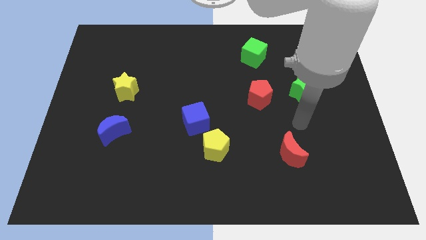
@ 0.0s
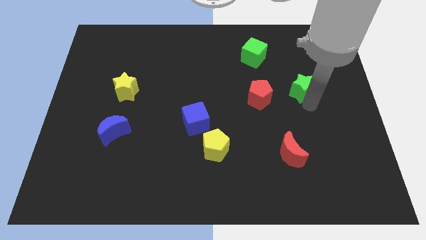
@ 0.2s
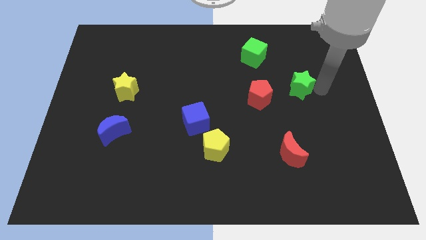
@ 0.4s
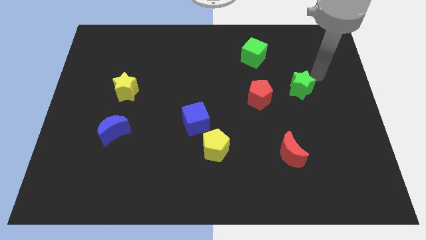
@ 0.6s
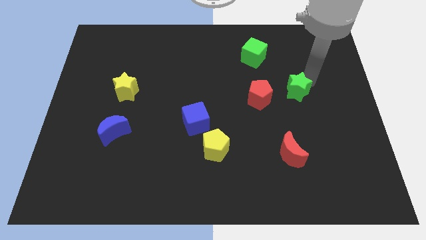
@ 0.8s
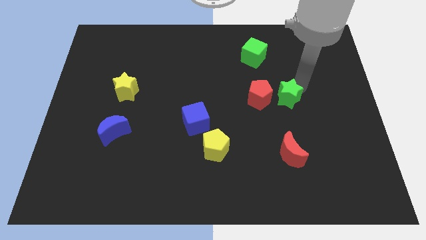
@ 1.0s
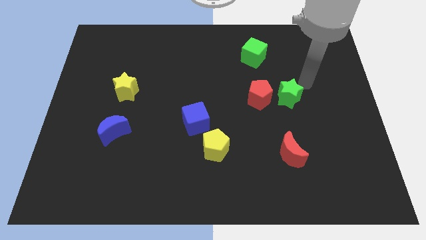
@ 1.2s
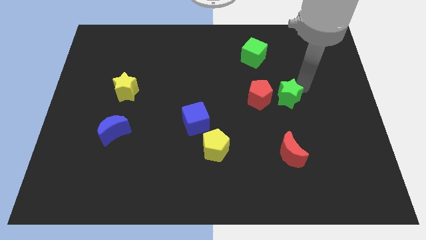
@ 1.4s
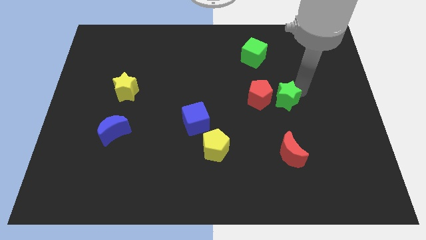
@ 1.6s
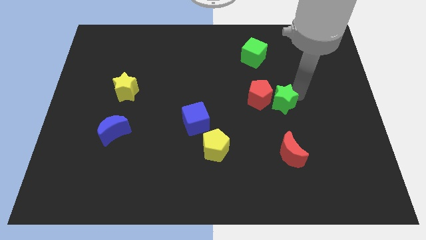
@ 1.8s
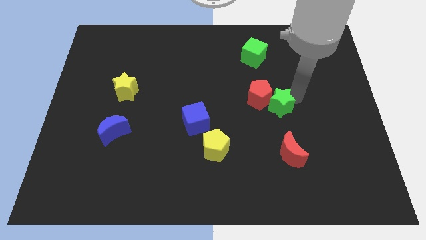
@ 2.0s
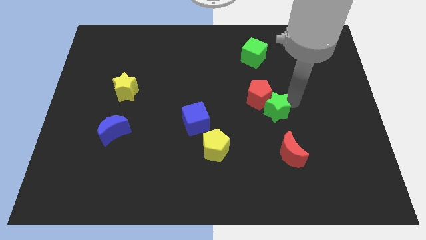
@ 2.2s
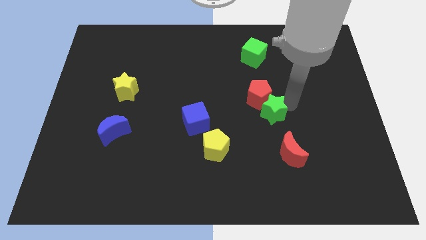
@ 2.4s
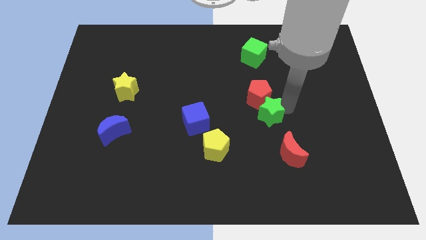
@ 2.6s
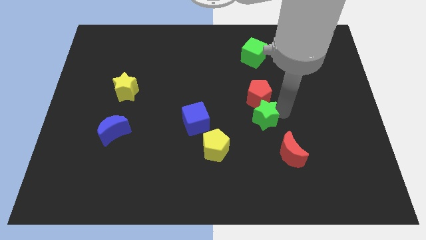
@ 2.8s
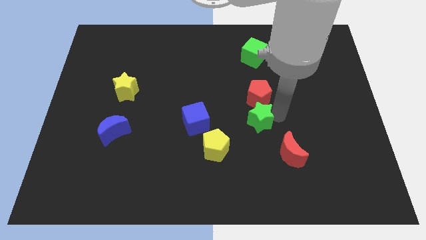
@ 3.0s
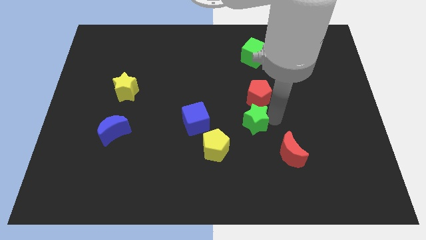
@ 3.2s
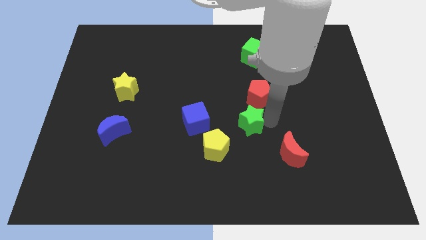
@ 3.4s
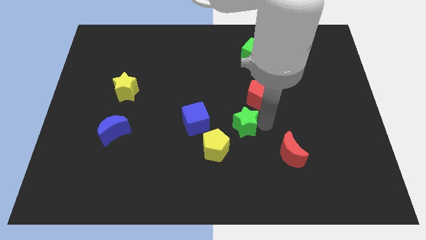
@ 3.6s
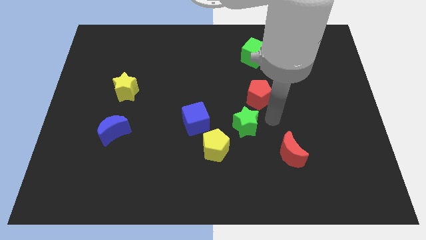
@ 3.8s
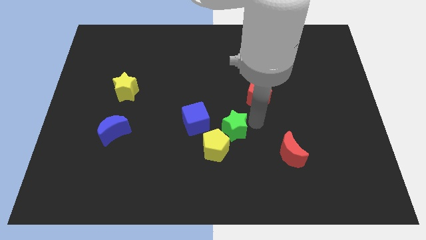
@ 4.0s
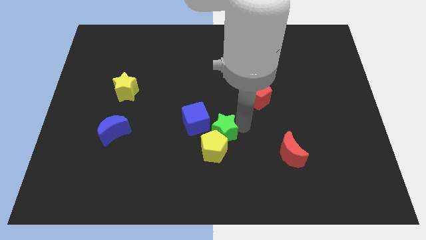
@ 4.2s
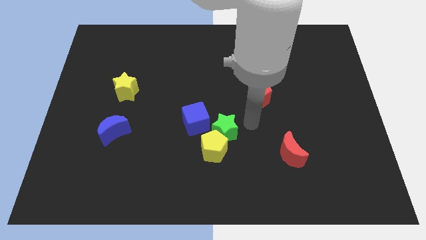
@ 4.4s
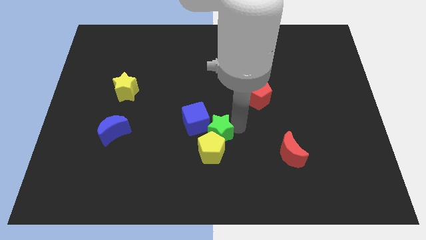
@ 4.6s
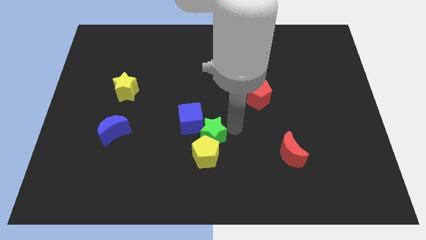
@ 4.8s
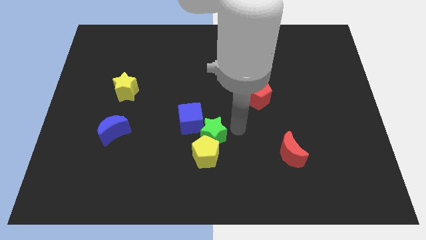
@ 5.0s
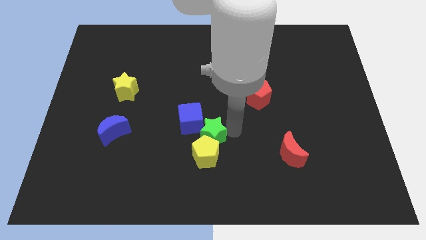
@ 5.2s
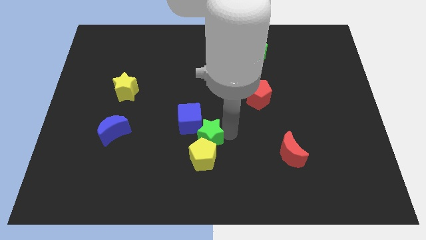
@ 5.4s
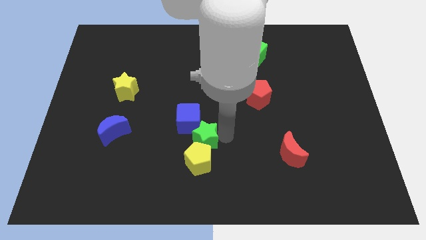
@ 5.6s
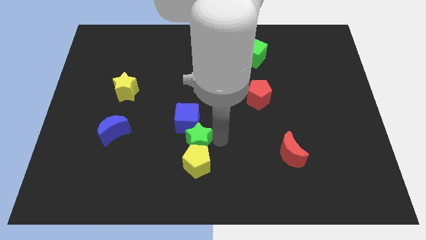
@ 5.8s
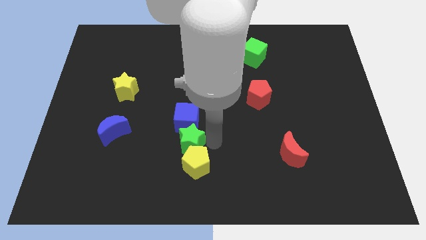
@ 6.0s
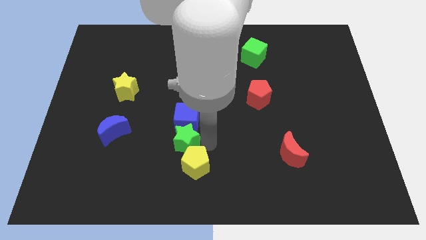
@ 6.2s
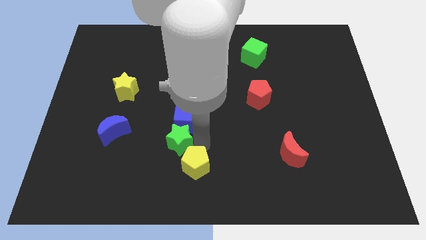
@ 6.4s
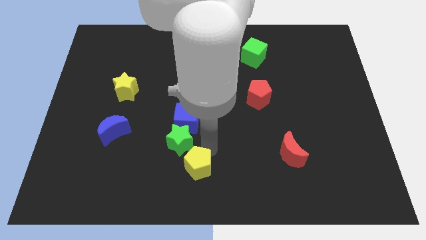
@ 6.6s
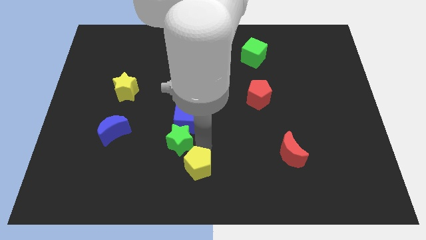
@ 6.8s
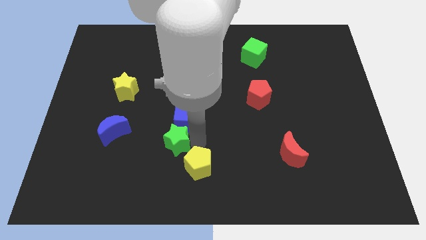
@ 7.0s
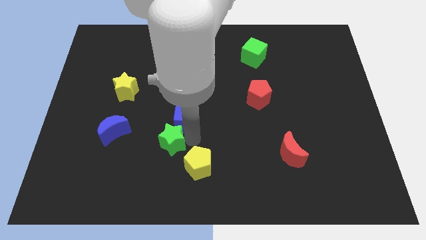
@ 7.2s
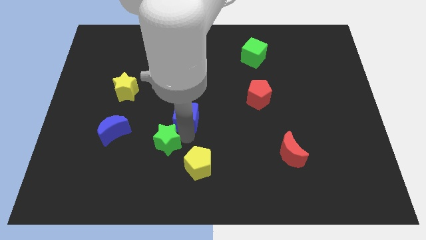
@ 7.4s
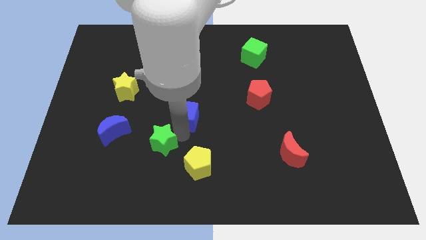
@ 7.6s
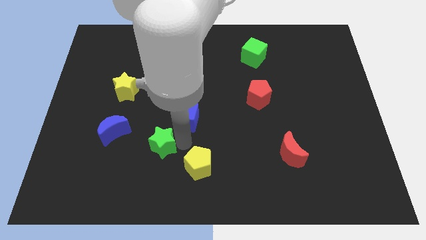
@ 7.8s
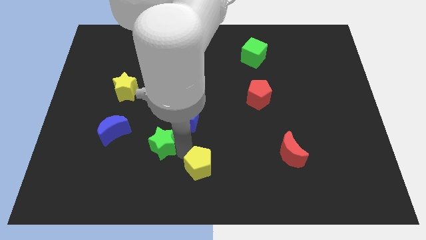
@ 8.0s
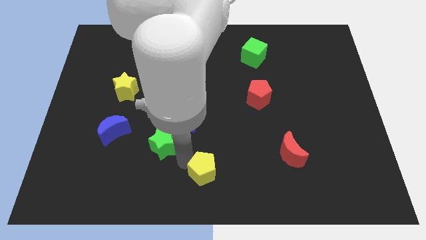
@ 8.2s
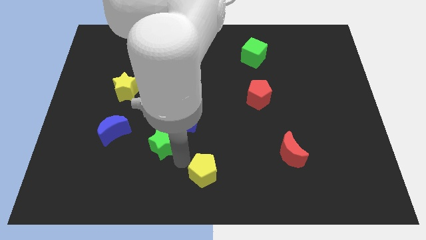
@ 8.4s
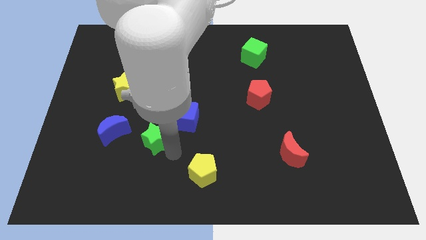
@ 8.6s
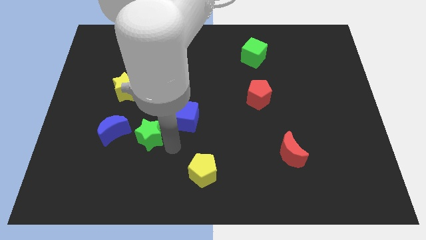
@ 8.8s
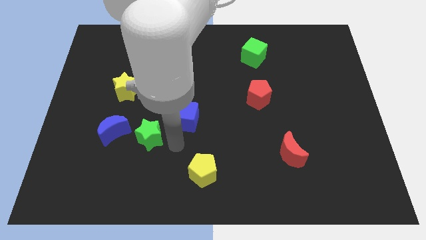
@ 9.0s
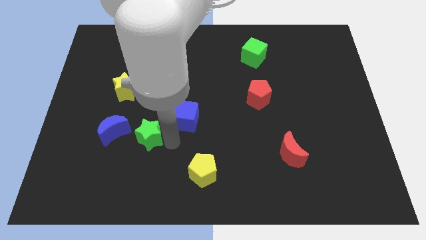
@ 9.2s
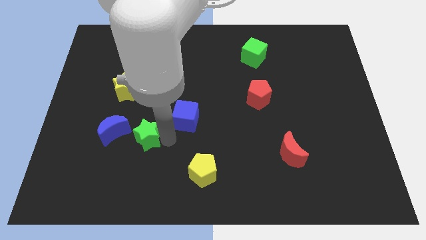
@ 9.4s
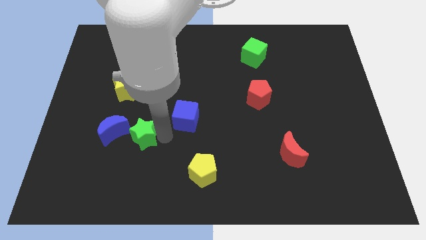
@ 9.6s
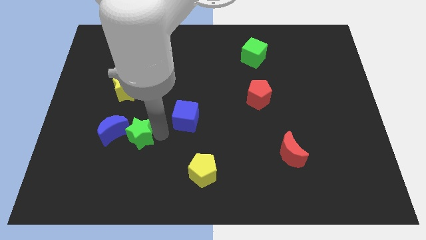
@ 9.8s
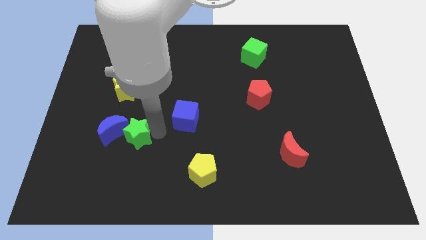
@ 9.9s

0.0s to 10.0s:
slide the green star close to the blue moon

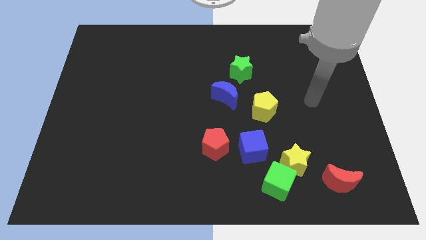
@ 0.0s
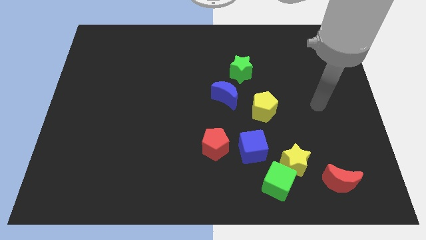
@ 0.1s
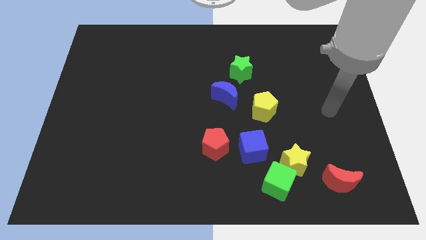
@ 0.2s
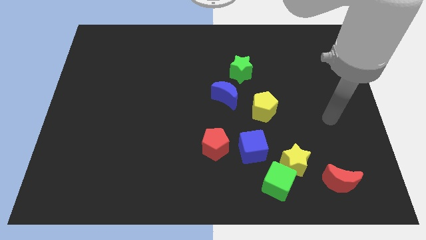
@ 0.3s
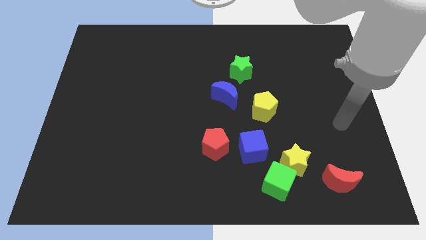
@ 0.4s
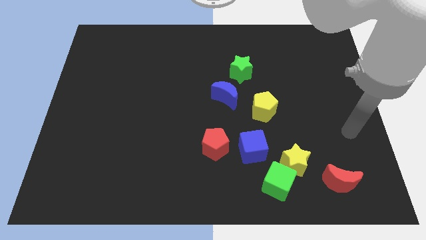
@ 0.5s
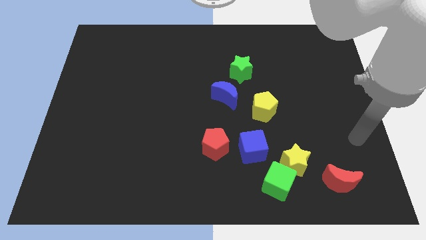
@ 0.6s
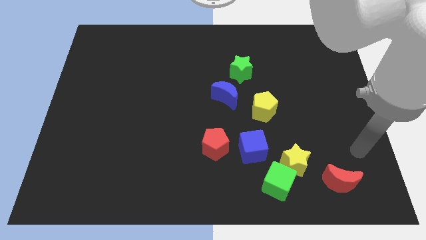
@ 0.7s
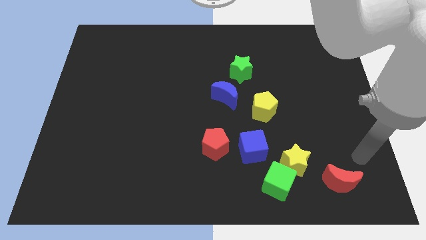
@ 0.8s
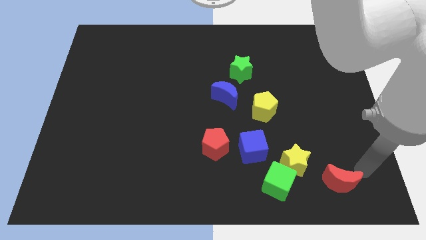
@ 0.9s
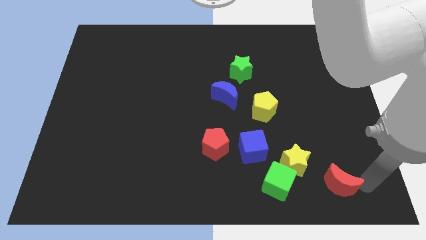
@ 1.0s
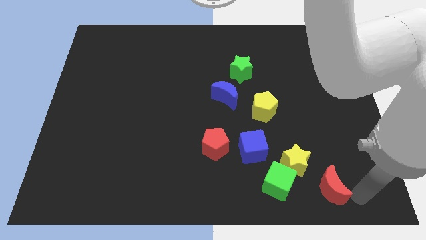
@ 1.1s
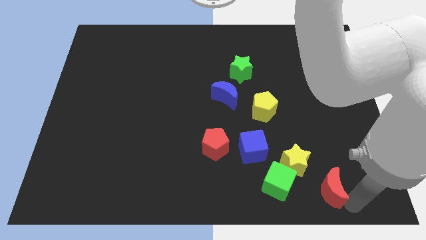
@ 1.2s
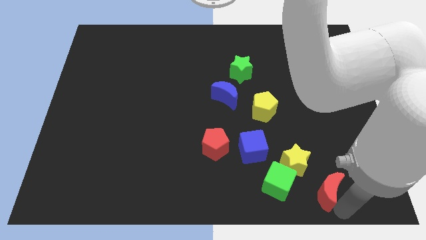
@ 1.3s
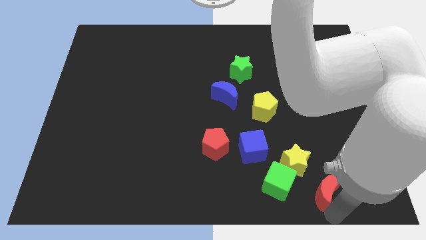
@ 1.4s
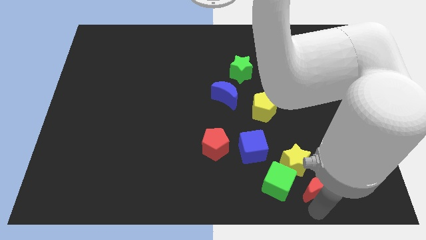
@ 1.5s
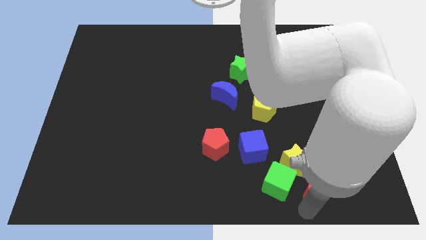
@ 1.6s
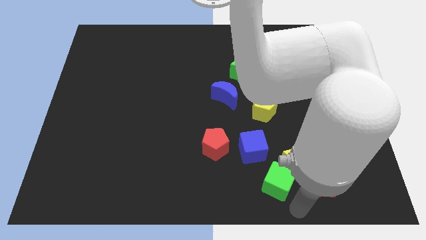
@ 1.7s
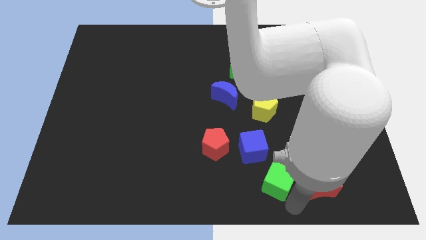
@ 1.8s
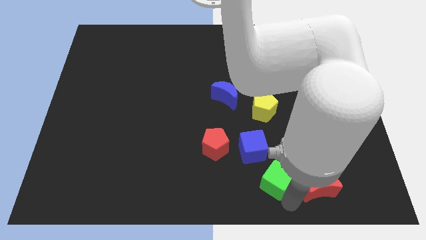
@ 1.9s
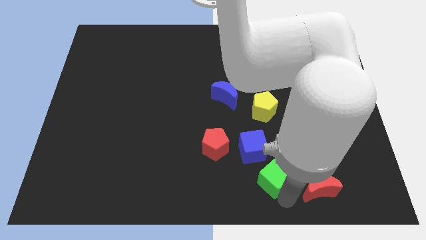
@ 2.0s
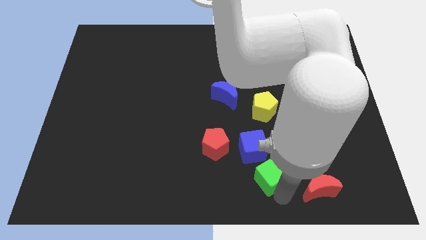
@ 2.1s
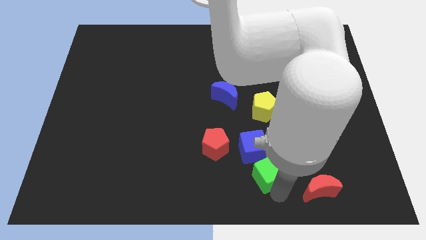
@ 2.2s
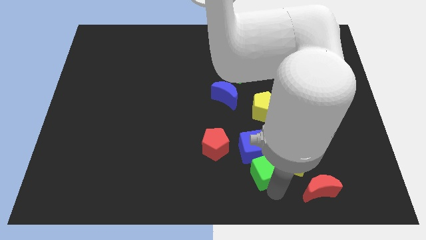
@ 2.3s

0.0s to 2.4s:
slide the green cube close to the blue cube

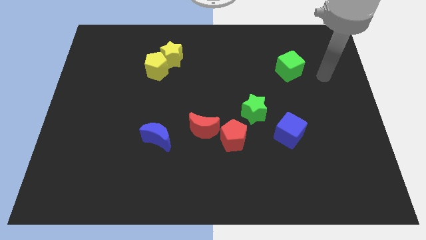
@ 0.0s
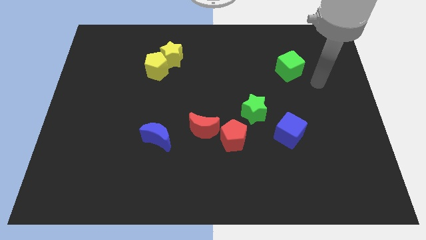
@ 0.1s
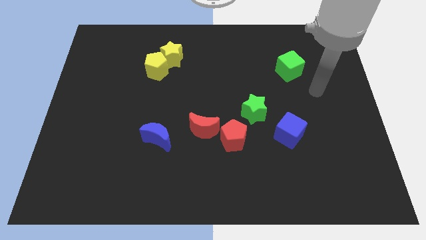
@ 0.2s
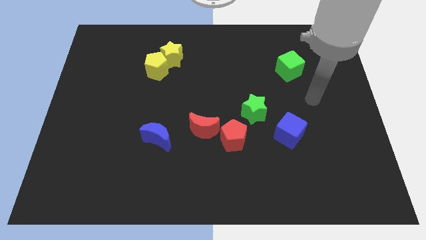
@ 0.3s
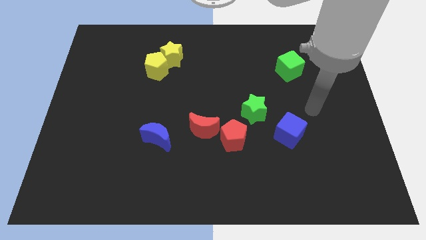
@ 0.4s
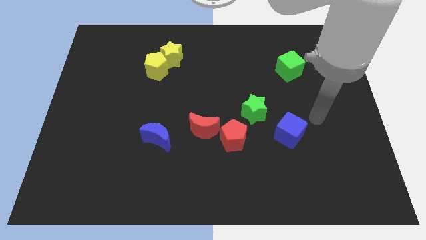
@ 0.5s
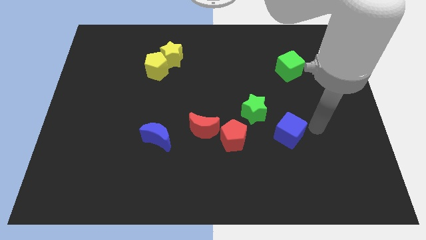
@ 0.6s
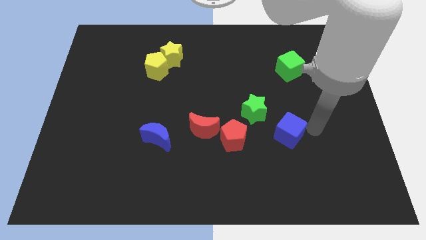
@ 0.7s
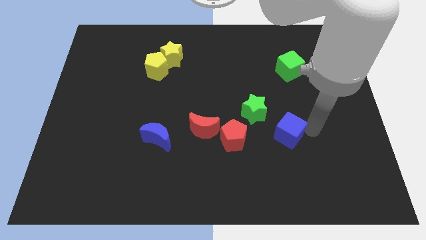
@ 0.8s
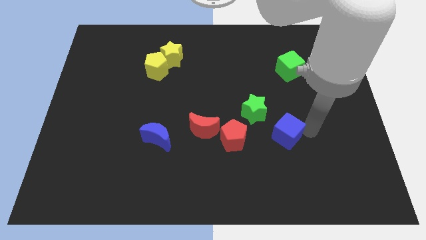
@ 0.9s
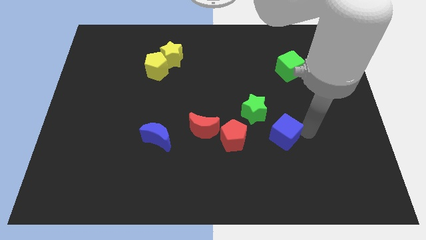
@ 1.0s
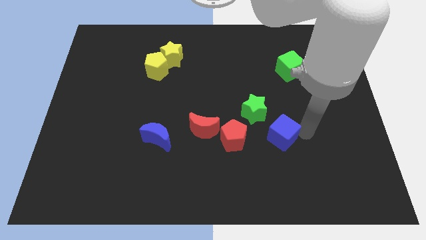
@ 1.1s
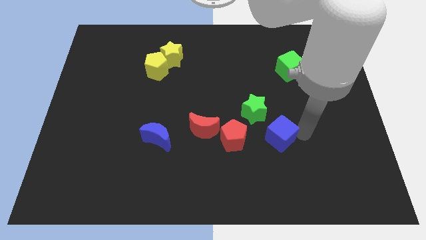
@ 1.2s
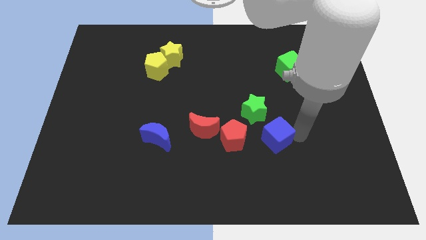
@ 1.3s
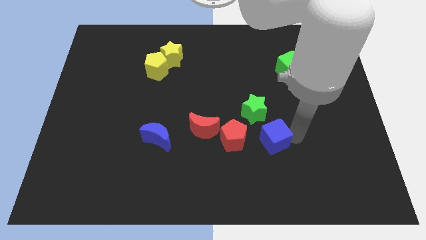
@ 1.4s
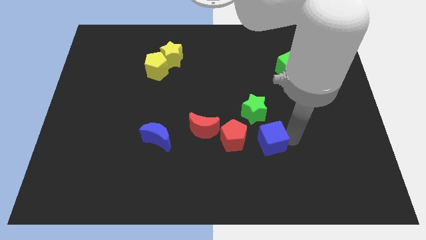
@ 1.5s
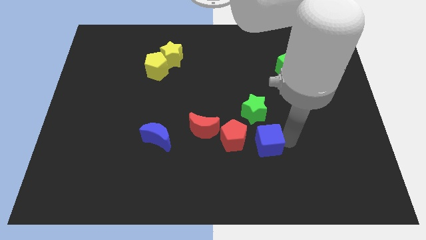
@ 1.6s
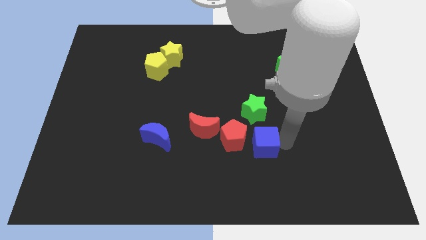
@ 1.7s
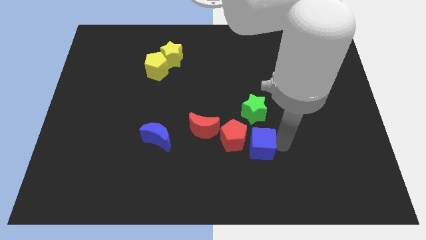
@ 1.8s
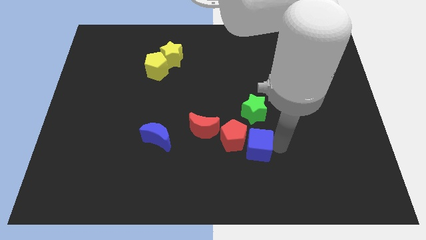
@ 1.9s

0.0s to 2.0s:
push the blue cube next to the red pentagon
